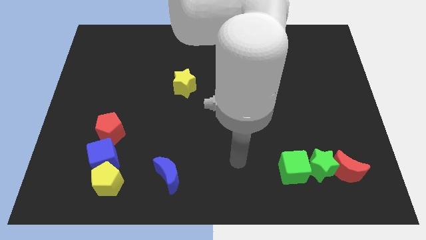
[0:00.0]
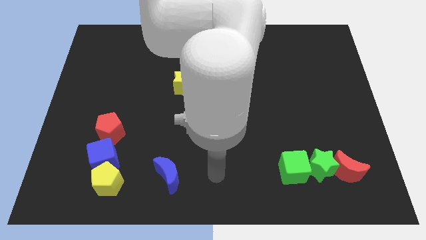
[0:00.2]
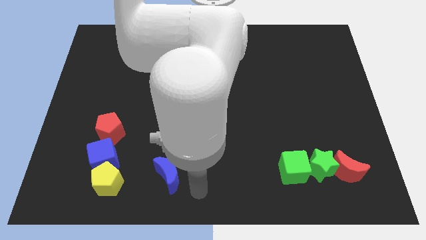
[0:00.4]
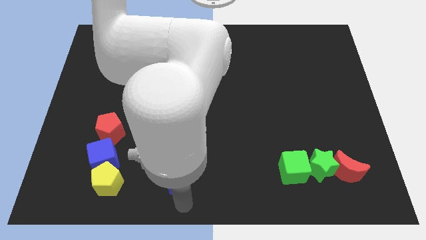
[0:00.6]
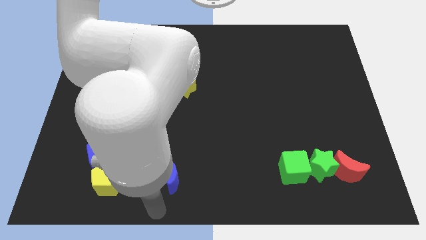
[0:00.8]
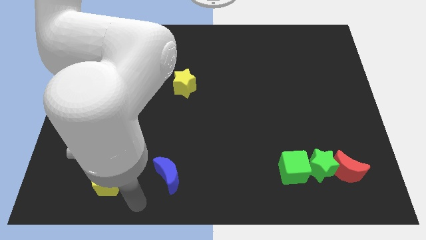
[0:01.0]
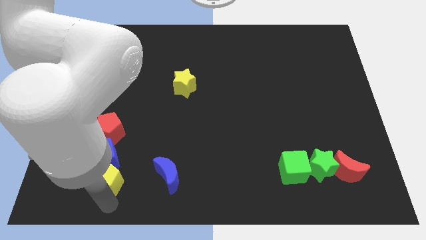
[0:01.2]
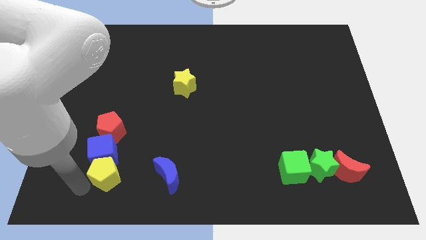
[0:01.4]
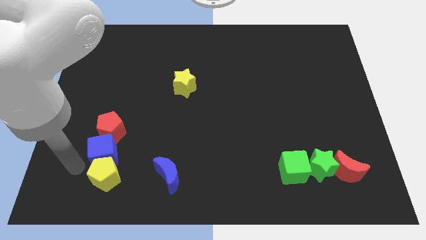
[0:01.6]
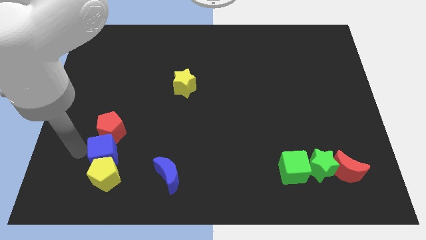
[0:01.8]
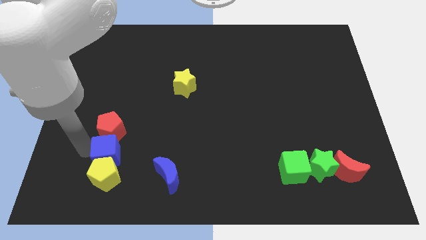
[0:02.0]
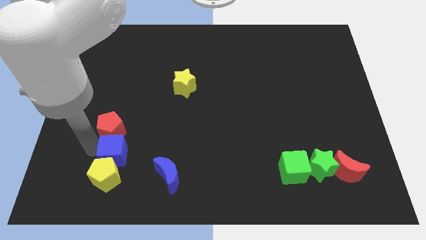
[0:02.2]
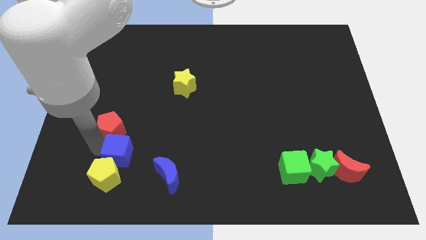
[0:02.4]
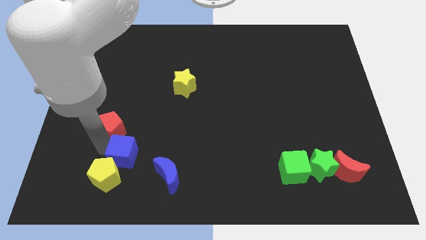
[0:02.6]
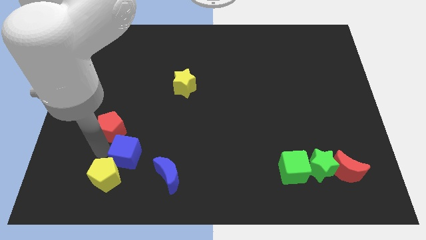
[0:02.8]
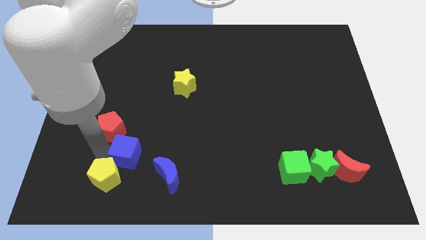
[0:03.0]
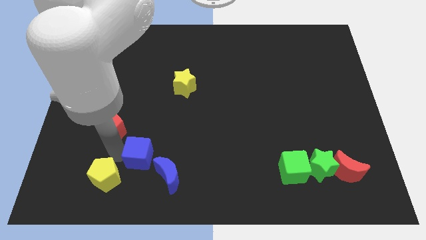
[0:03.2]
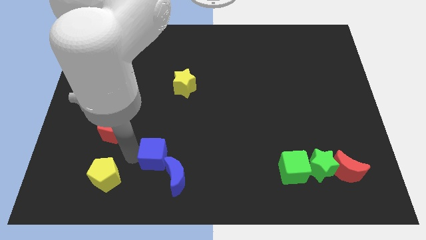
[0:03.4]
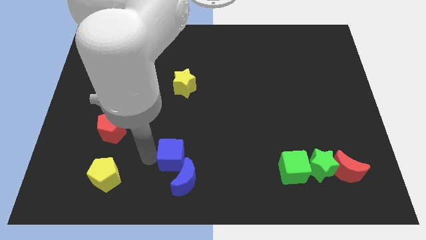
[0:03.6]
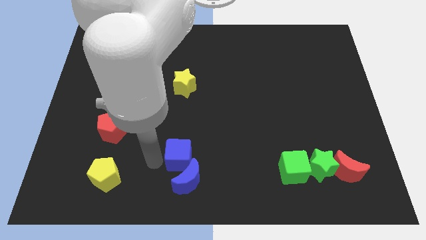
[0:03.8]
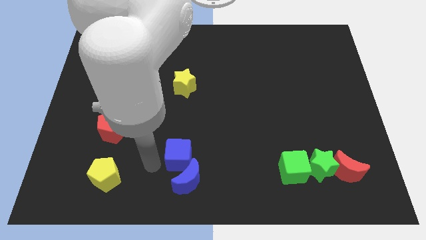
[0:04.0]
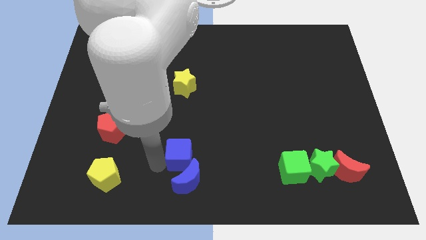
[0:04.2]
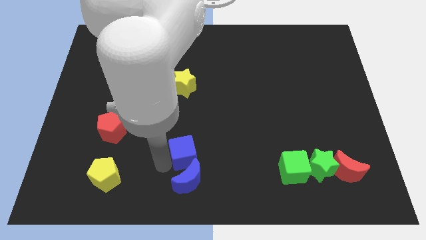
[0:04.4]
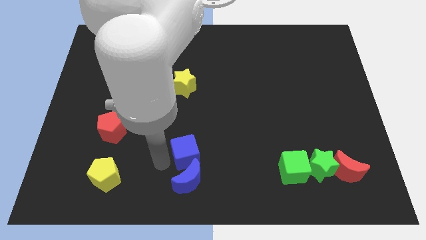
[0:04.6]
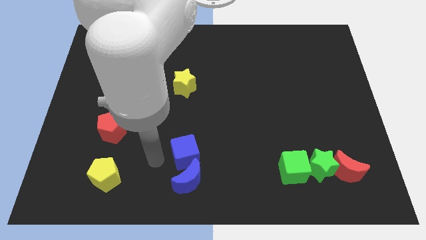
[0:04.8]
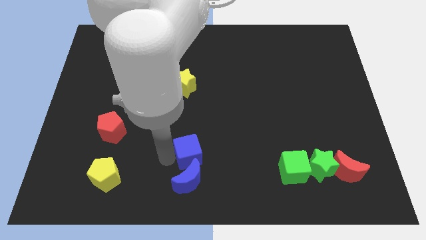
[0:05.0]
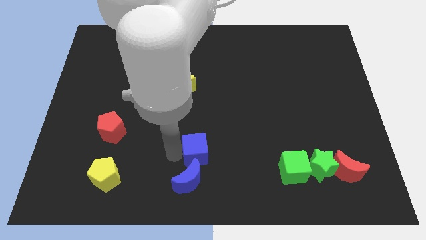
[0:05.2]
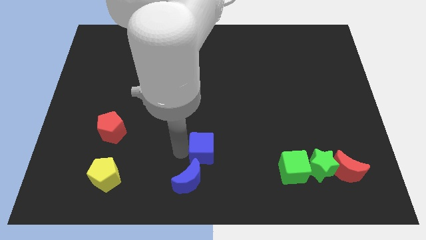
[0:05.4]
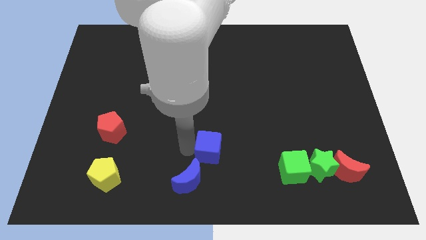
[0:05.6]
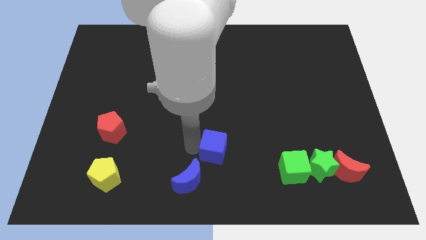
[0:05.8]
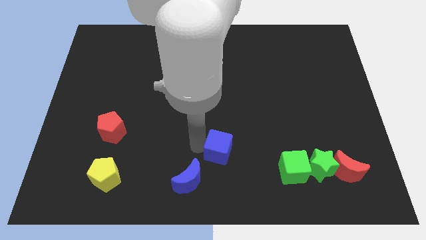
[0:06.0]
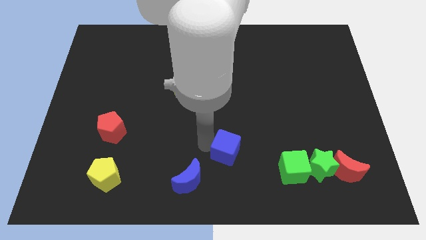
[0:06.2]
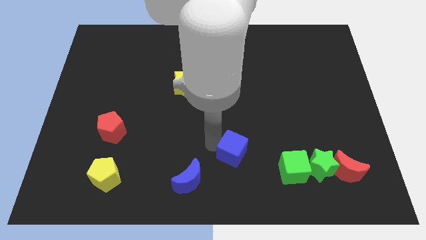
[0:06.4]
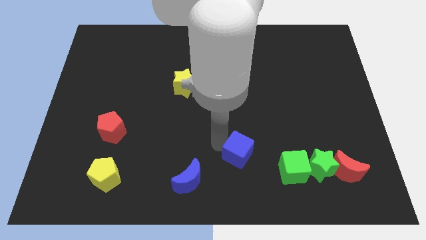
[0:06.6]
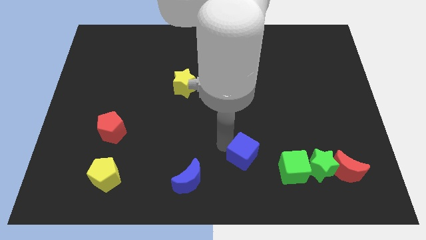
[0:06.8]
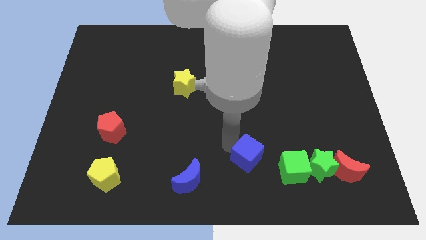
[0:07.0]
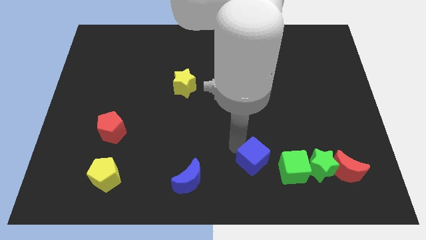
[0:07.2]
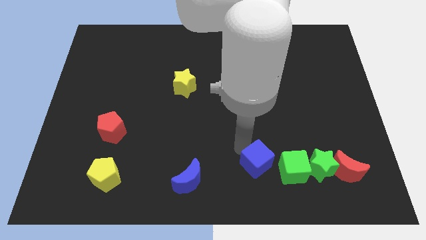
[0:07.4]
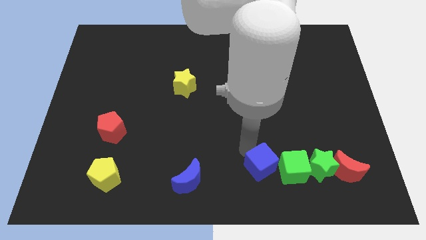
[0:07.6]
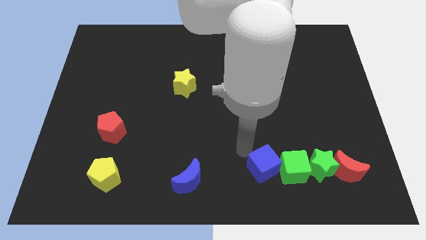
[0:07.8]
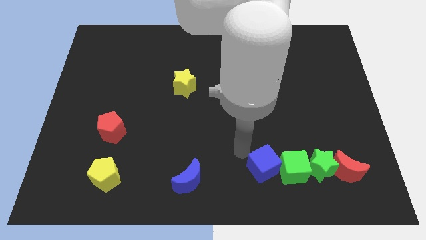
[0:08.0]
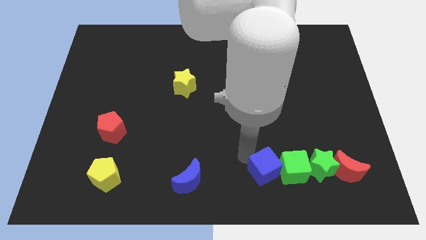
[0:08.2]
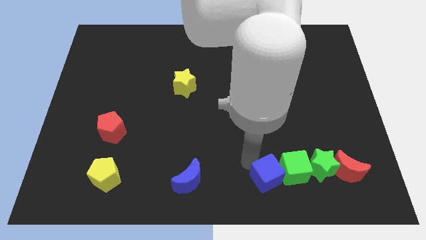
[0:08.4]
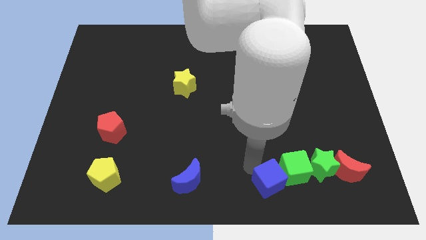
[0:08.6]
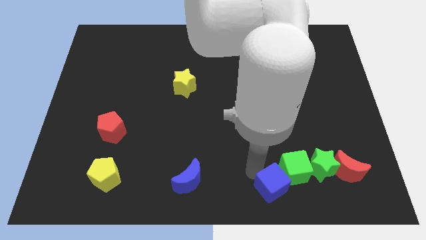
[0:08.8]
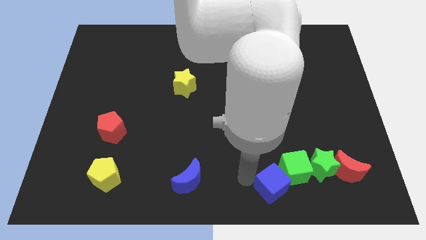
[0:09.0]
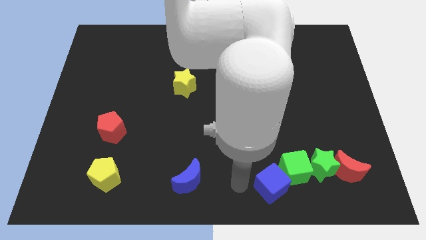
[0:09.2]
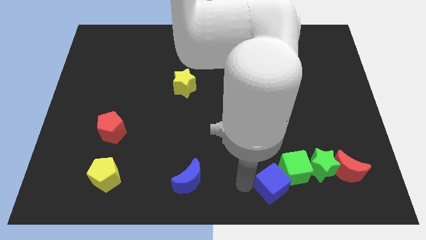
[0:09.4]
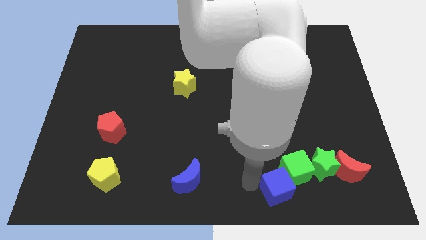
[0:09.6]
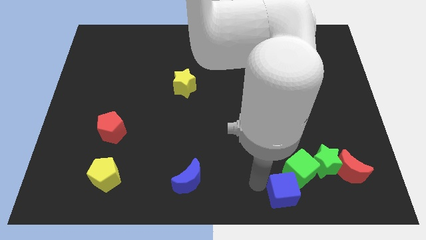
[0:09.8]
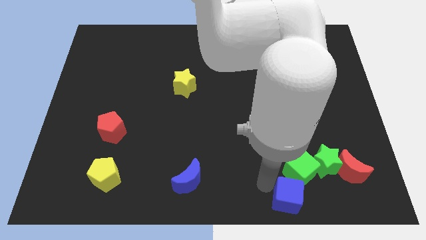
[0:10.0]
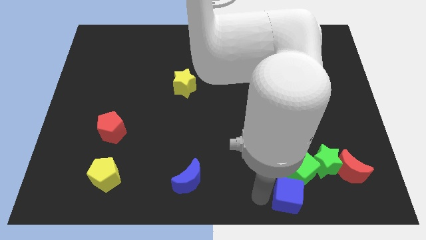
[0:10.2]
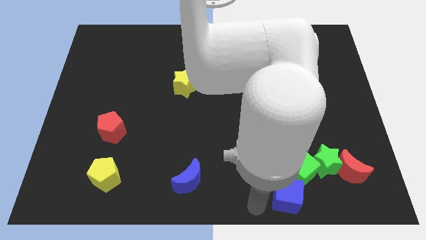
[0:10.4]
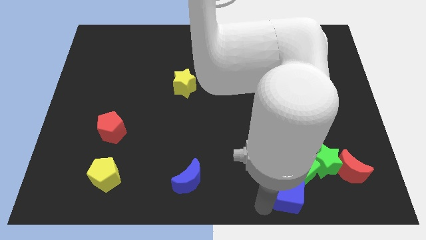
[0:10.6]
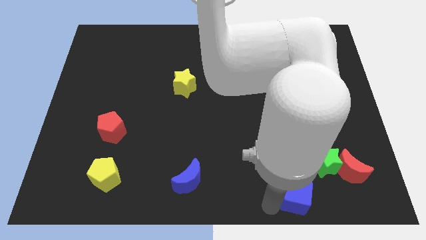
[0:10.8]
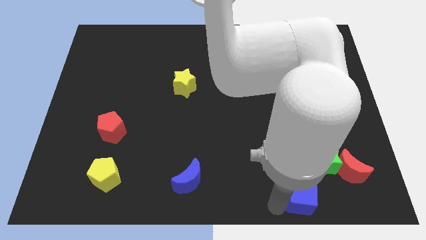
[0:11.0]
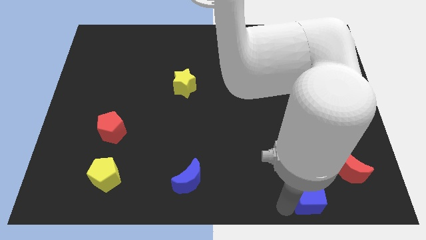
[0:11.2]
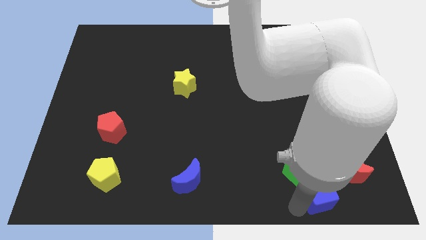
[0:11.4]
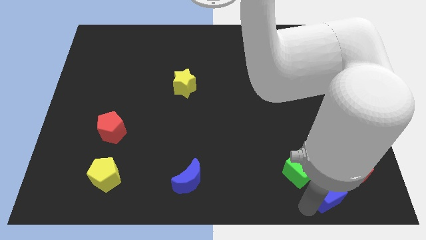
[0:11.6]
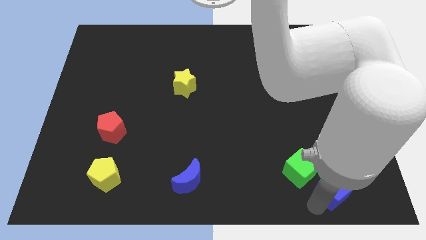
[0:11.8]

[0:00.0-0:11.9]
put the blue cube to the red moon
